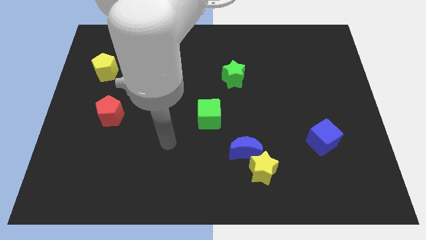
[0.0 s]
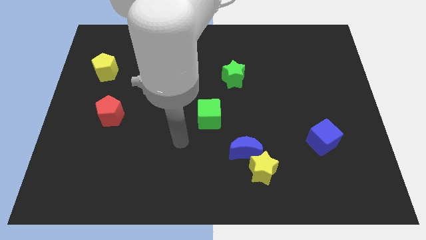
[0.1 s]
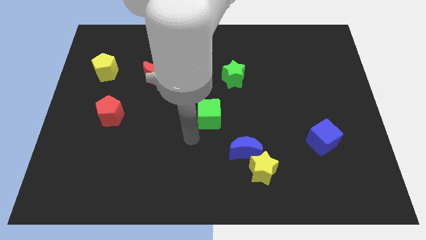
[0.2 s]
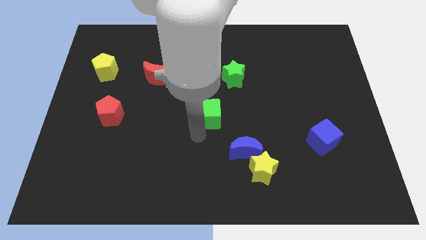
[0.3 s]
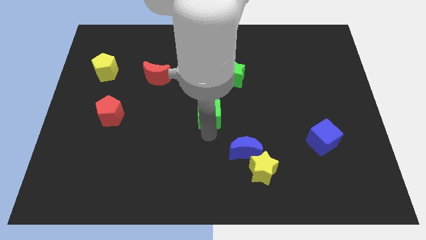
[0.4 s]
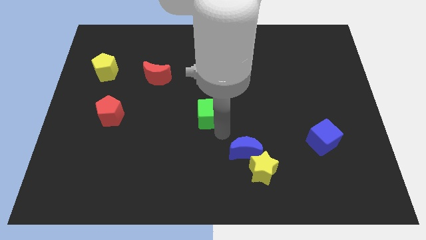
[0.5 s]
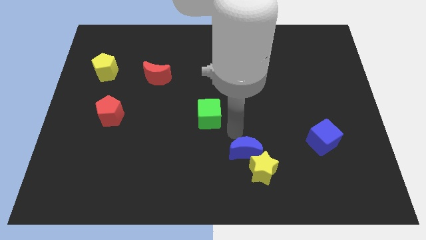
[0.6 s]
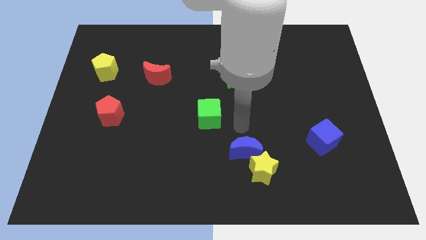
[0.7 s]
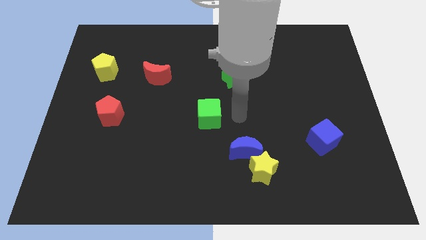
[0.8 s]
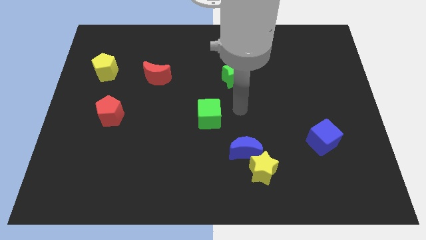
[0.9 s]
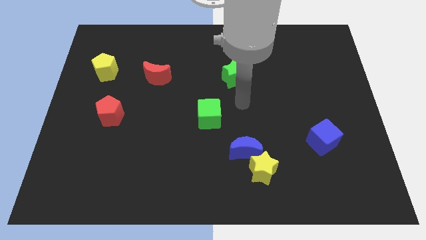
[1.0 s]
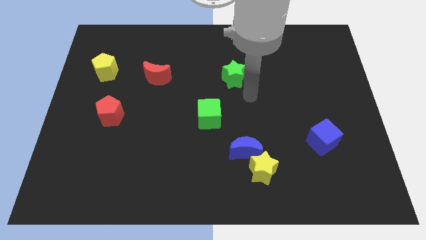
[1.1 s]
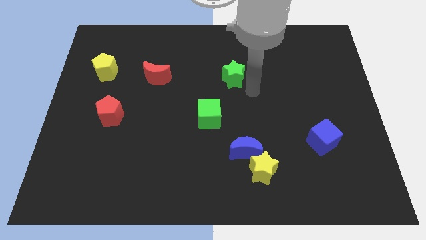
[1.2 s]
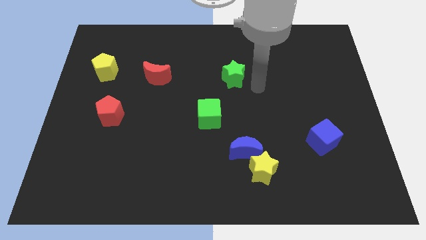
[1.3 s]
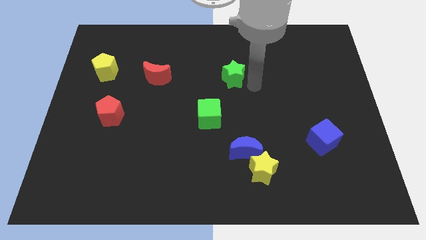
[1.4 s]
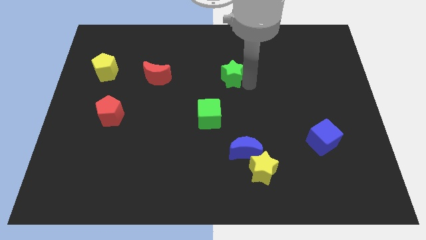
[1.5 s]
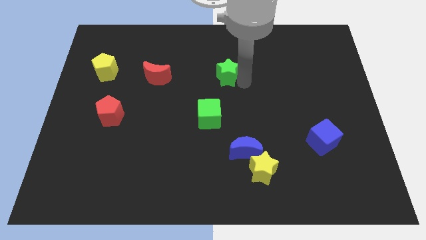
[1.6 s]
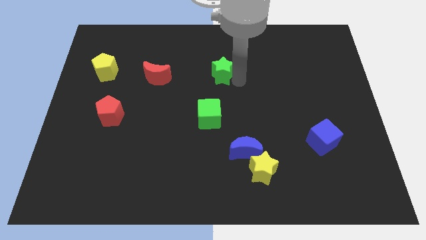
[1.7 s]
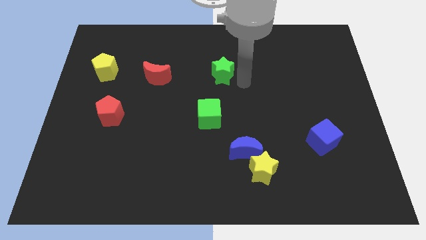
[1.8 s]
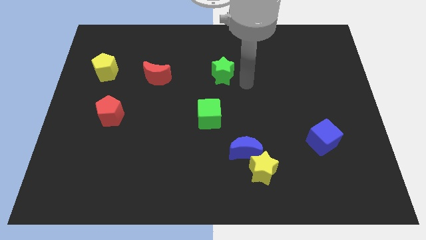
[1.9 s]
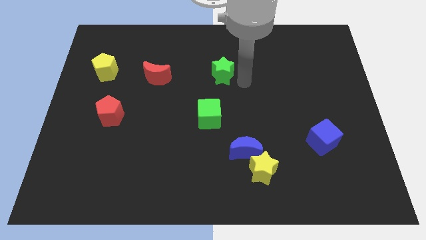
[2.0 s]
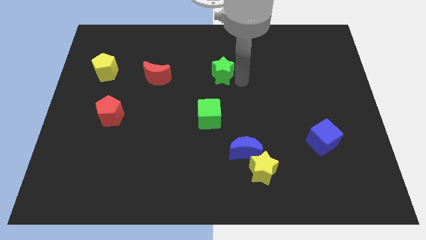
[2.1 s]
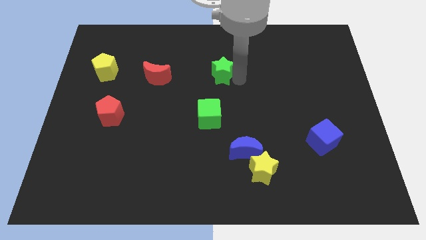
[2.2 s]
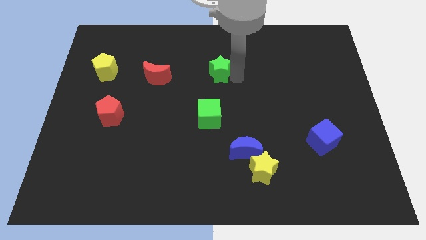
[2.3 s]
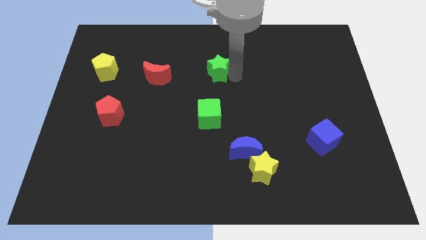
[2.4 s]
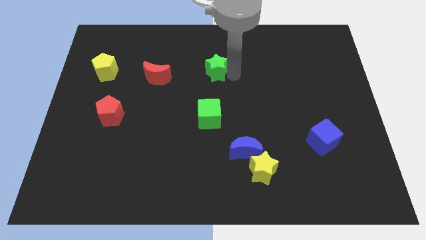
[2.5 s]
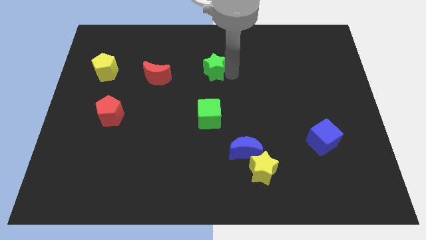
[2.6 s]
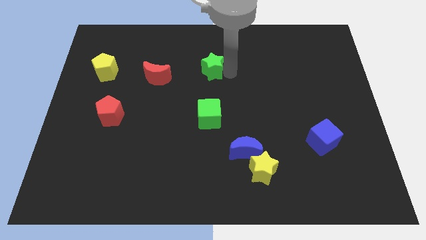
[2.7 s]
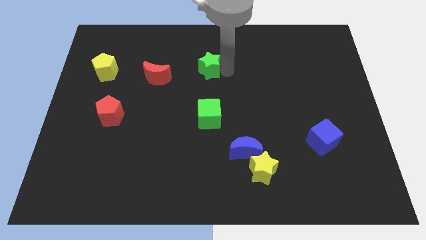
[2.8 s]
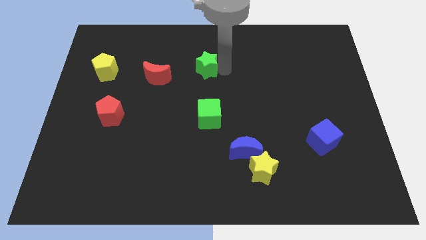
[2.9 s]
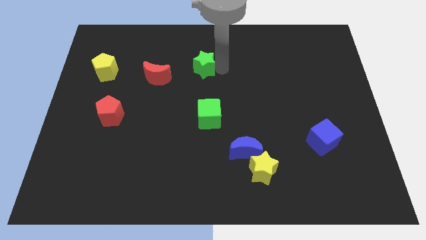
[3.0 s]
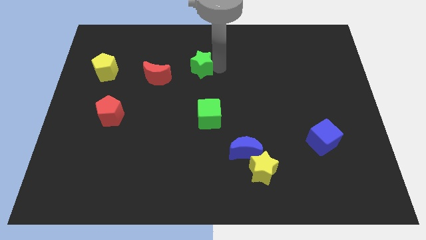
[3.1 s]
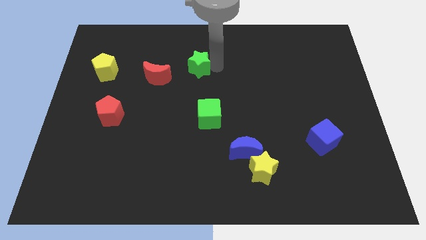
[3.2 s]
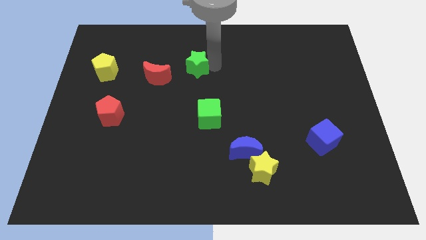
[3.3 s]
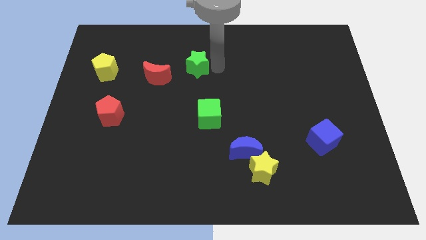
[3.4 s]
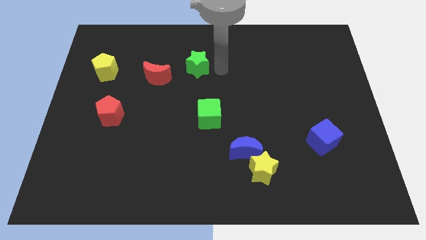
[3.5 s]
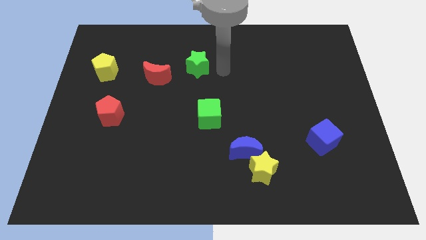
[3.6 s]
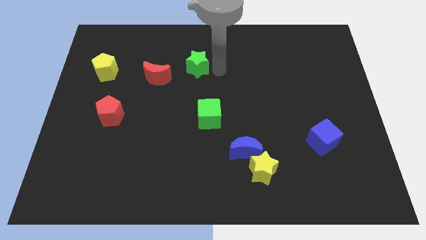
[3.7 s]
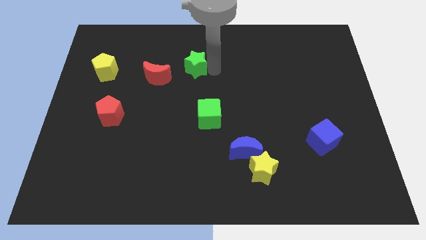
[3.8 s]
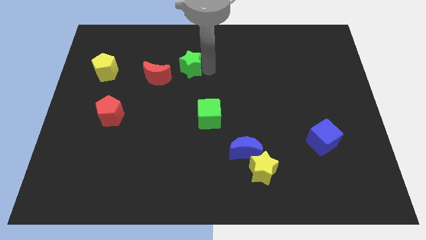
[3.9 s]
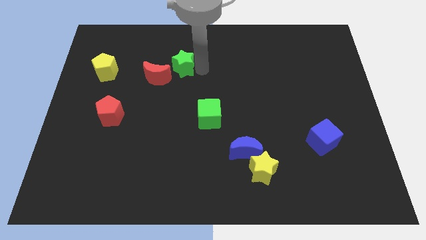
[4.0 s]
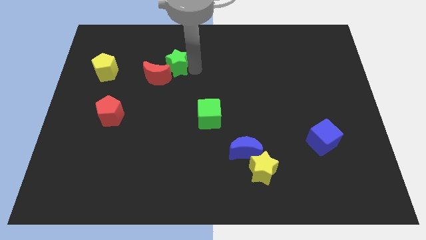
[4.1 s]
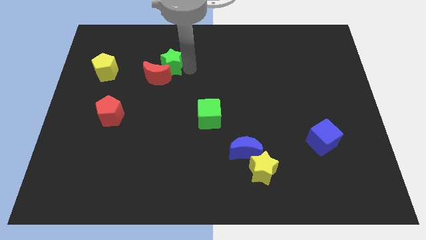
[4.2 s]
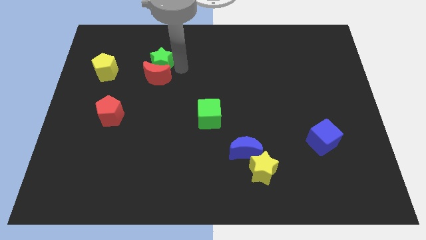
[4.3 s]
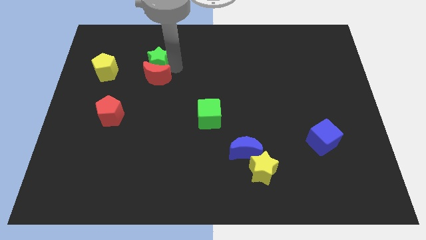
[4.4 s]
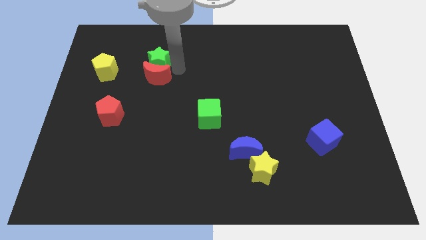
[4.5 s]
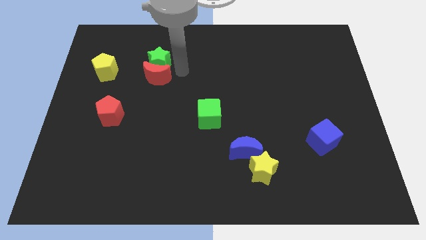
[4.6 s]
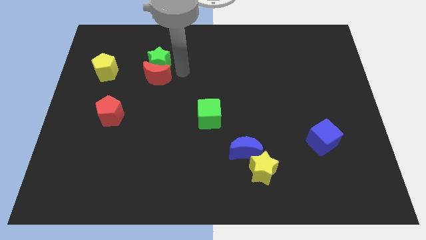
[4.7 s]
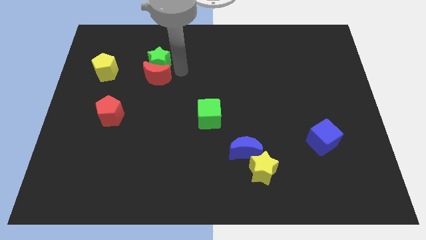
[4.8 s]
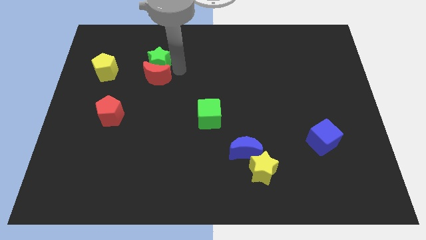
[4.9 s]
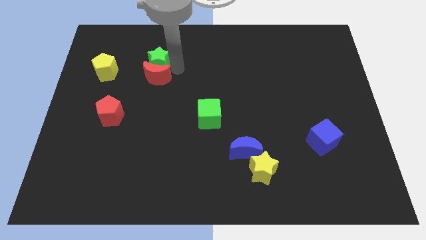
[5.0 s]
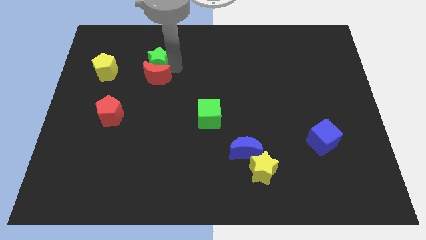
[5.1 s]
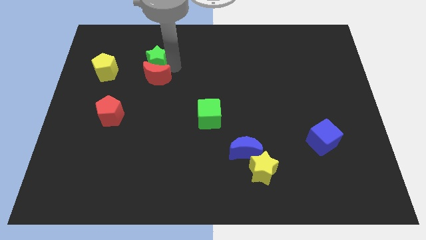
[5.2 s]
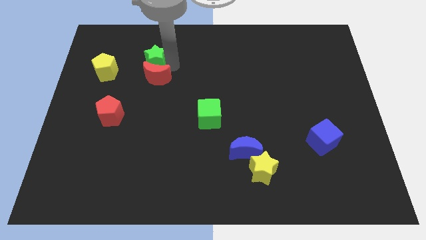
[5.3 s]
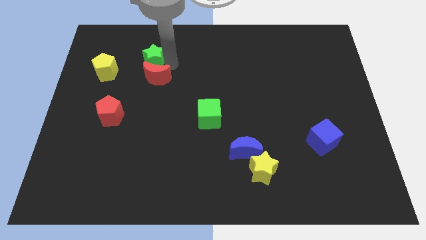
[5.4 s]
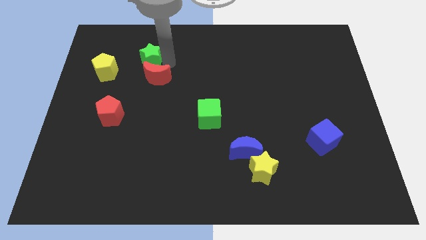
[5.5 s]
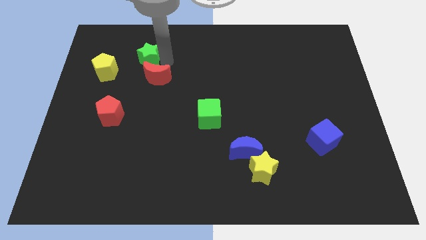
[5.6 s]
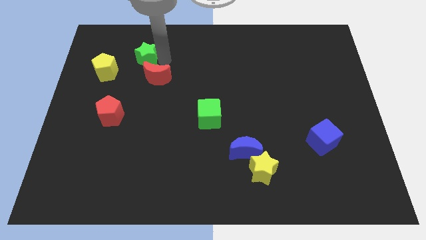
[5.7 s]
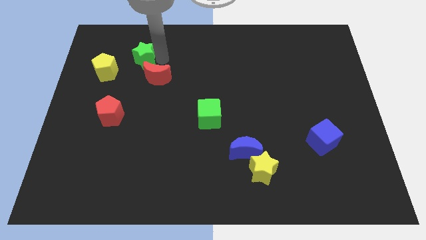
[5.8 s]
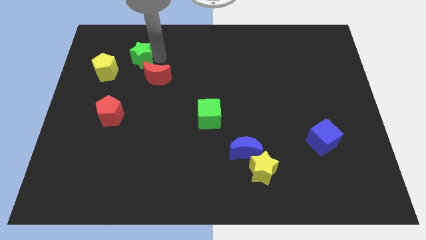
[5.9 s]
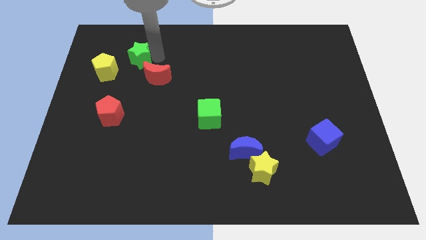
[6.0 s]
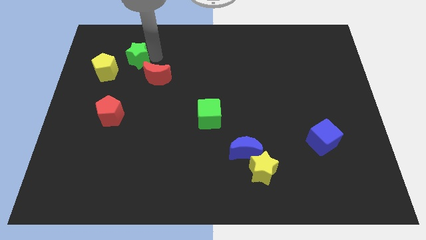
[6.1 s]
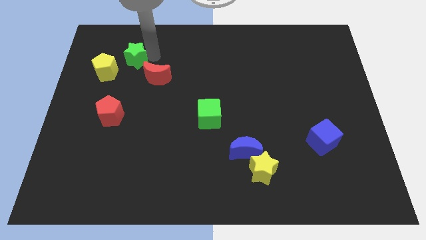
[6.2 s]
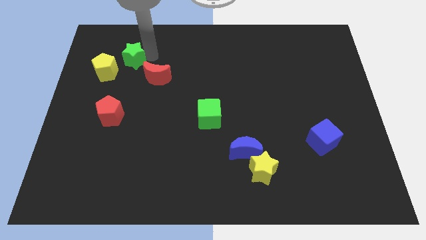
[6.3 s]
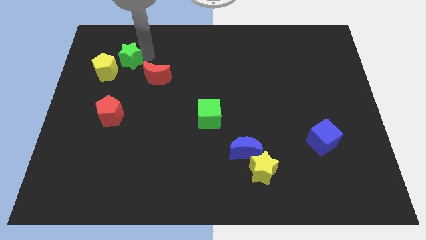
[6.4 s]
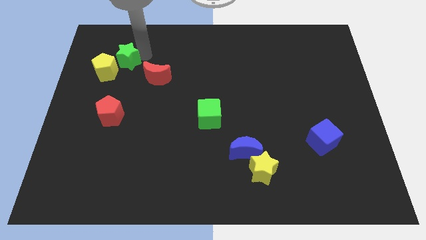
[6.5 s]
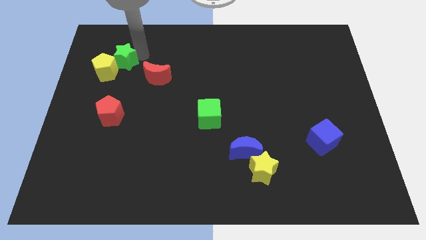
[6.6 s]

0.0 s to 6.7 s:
slide the green star close to the yellow pentagon
